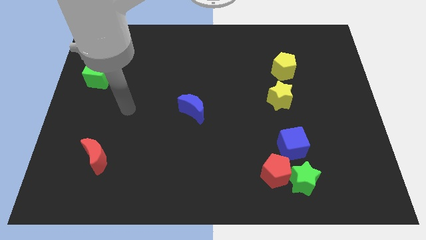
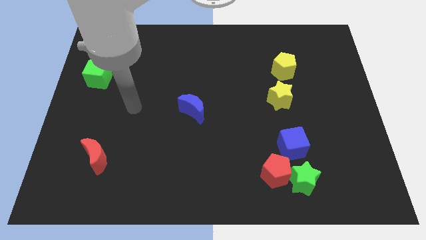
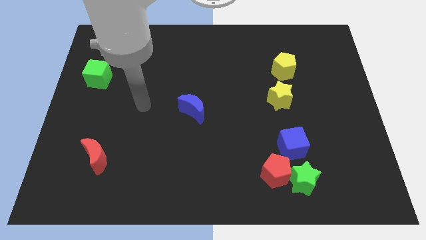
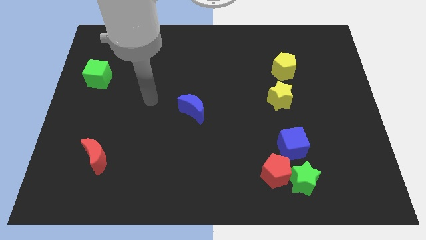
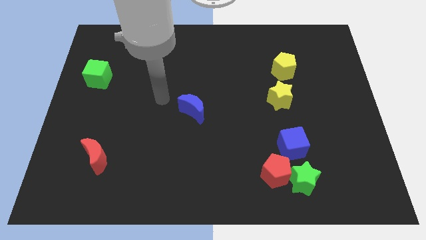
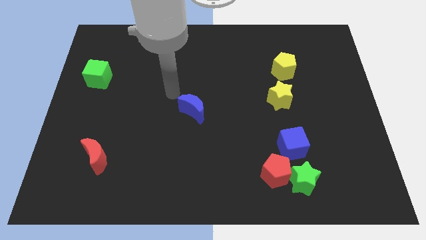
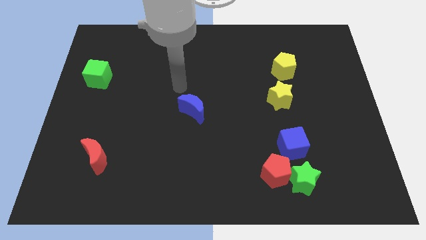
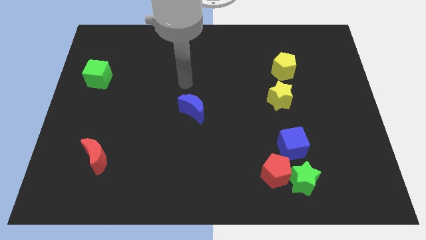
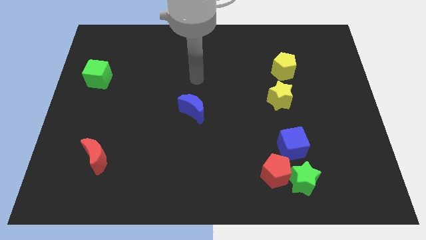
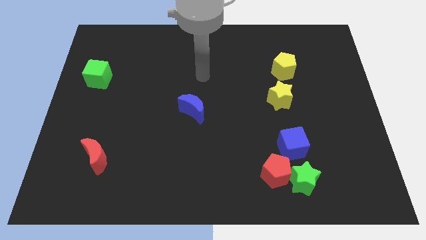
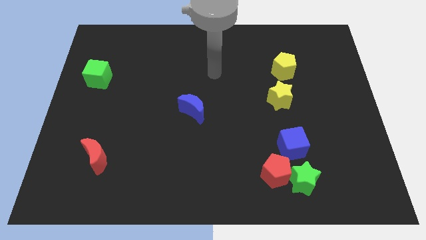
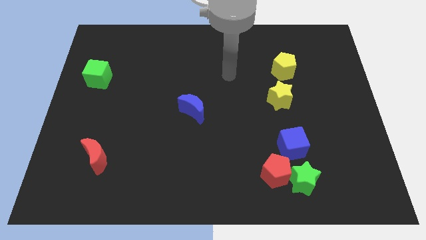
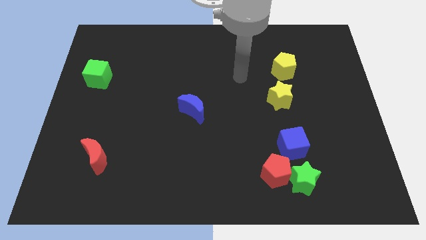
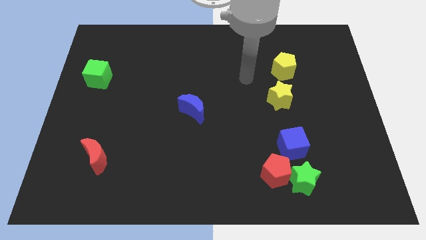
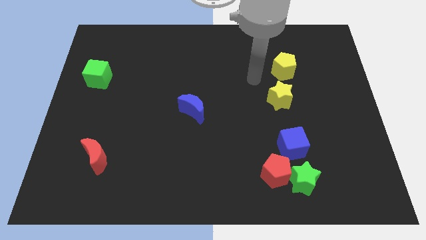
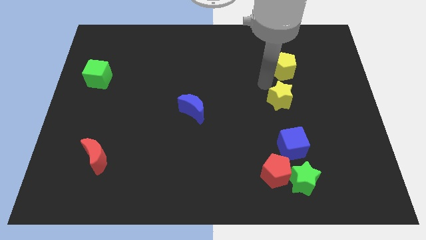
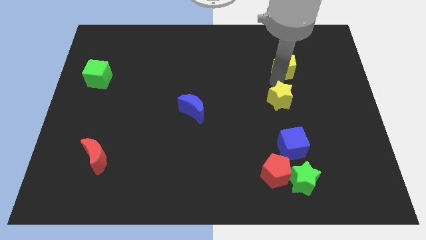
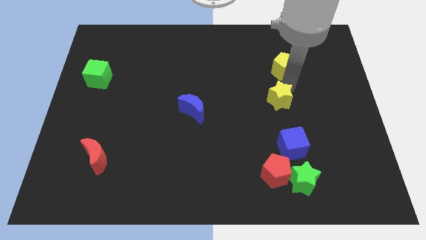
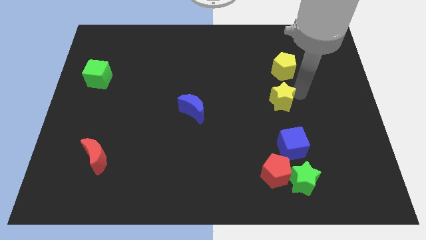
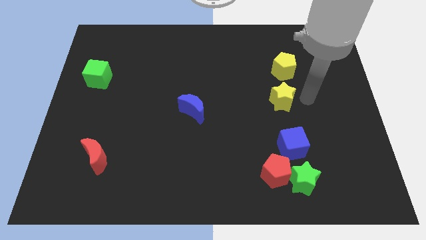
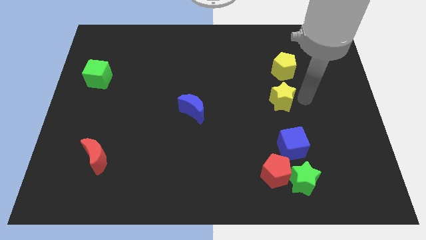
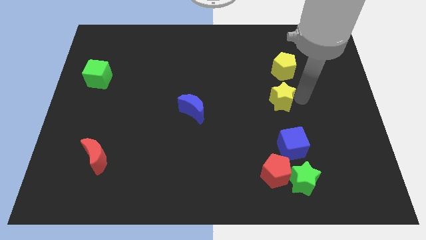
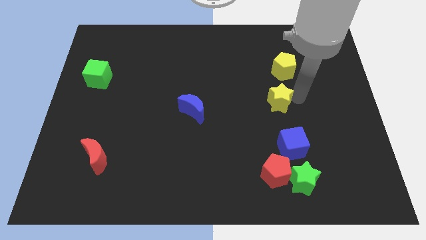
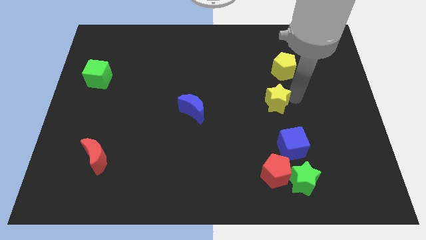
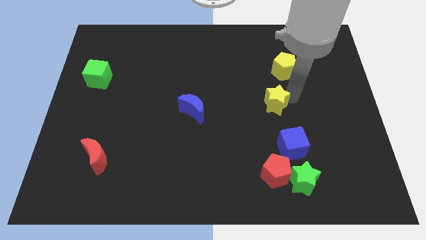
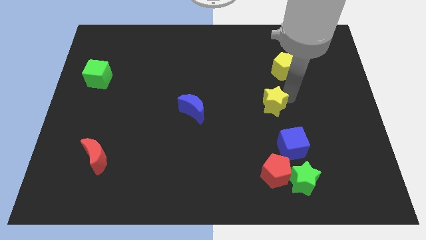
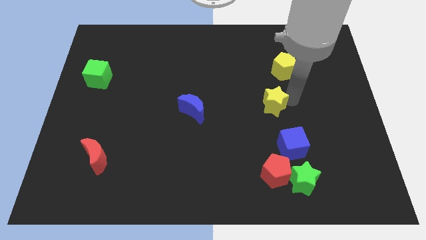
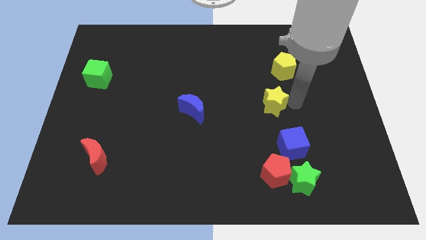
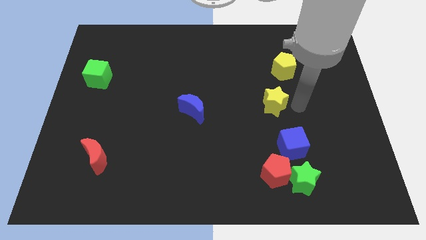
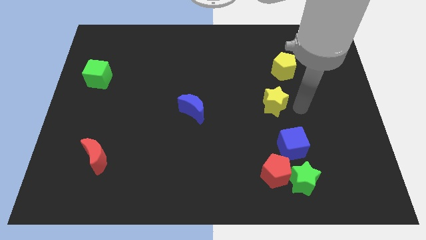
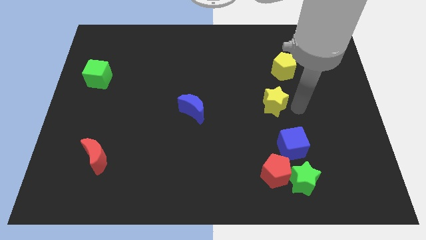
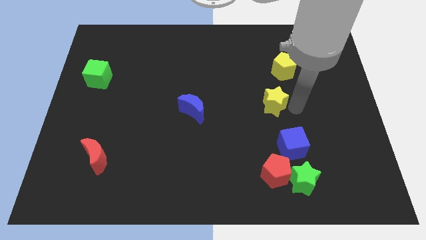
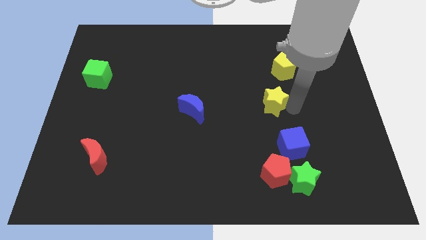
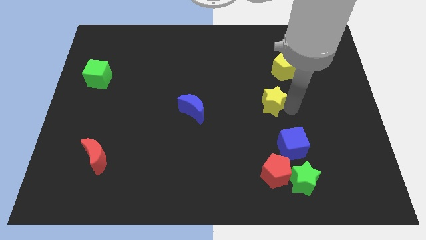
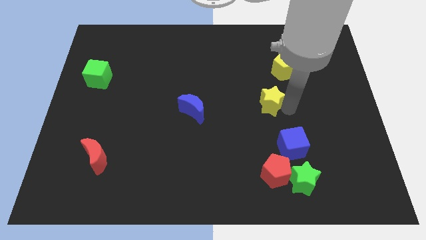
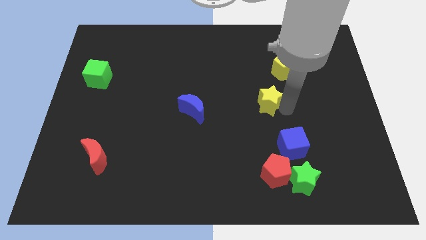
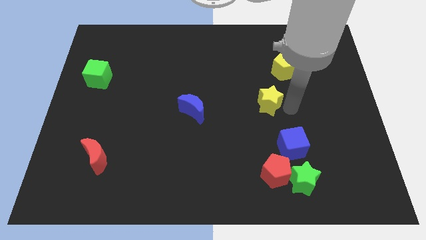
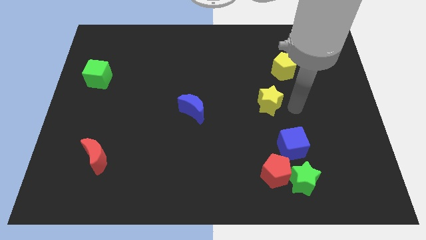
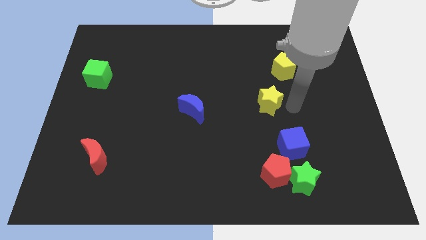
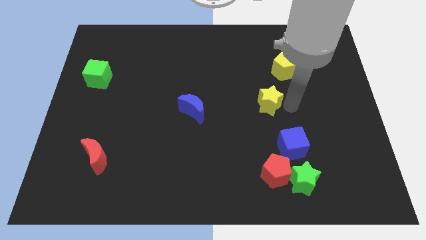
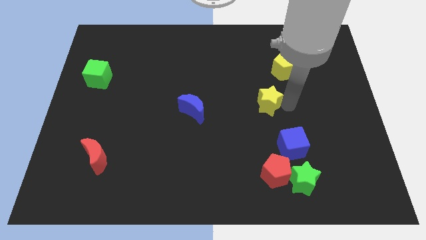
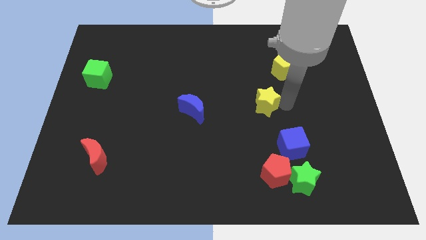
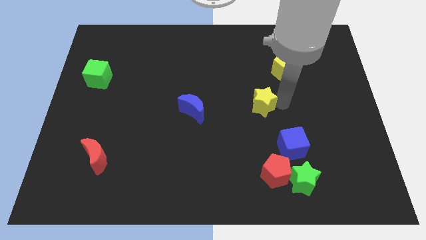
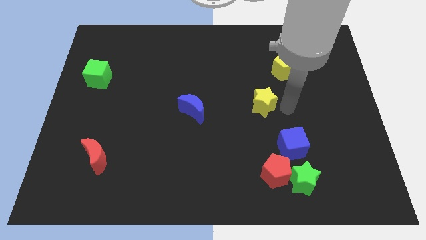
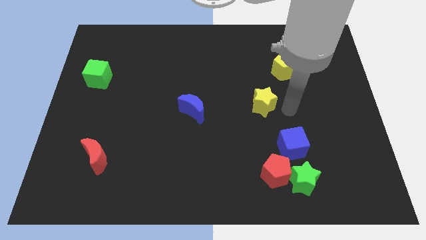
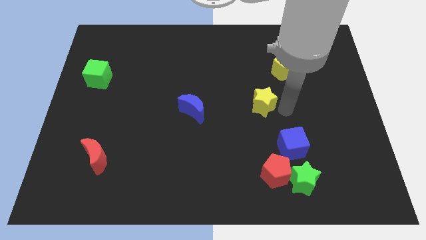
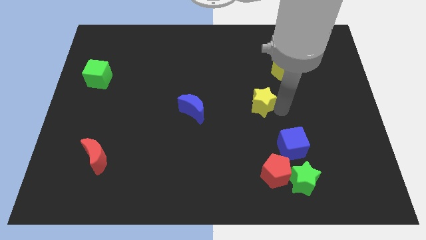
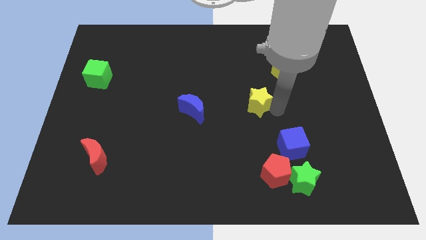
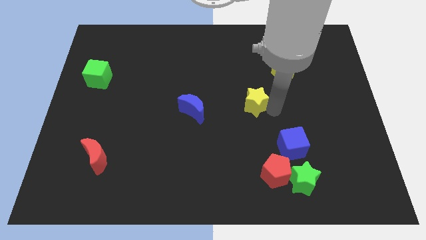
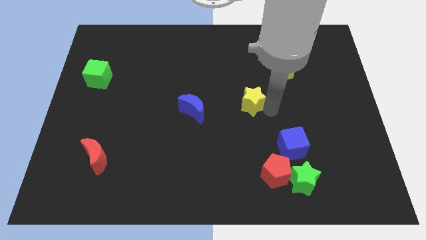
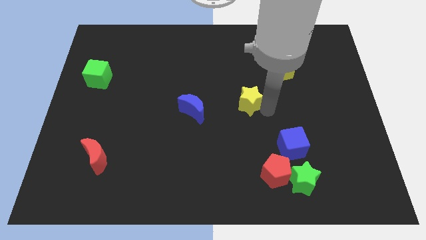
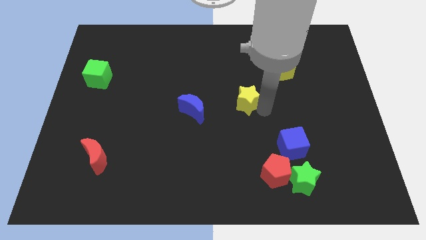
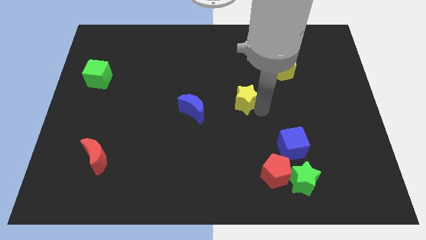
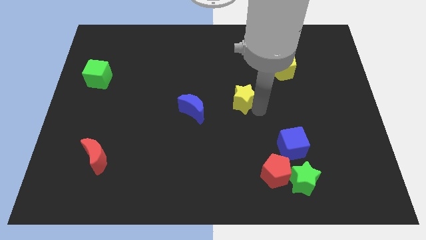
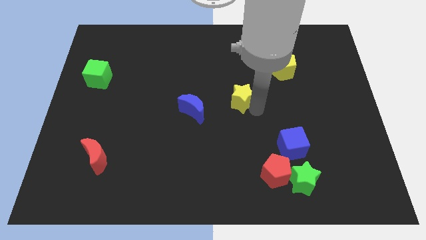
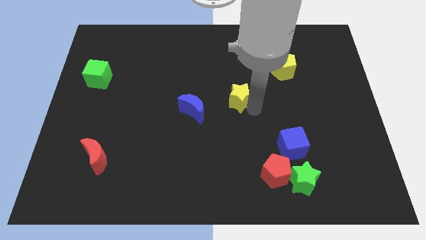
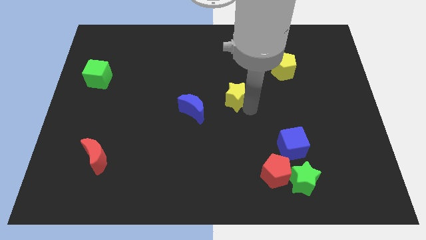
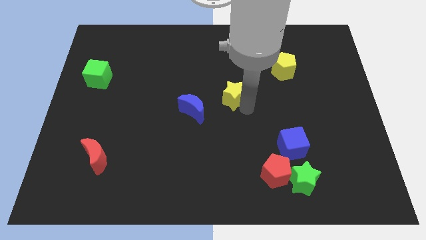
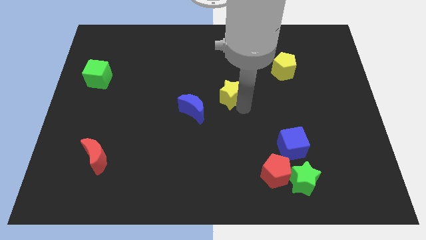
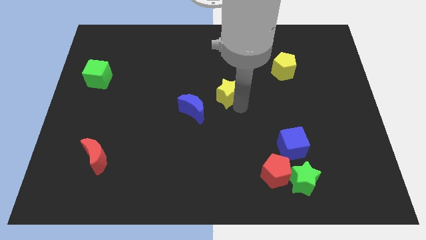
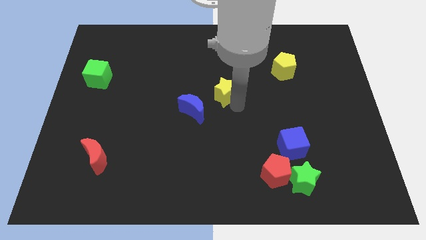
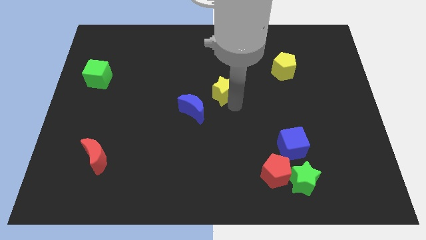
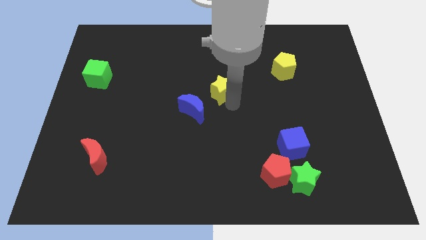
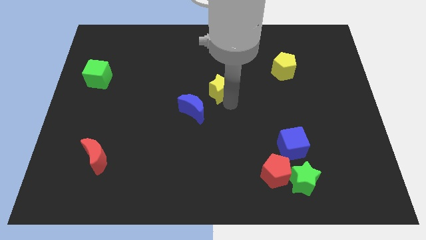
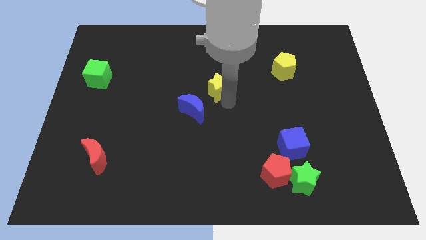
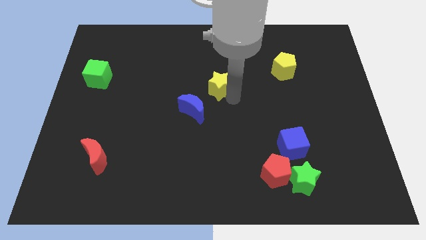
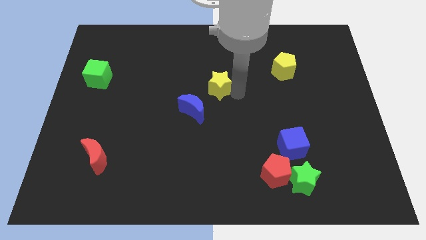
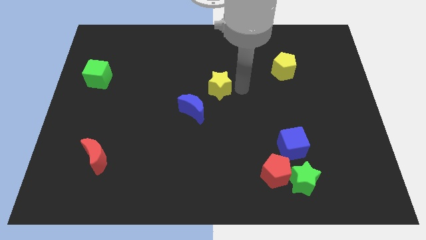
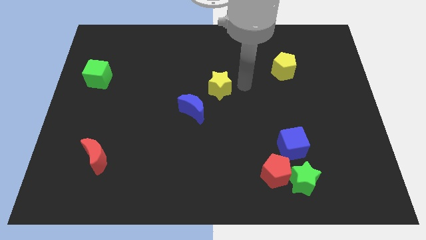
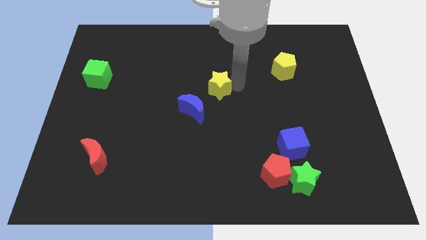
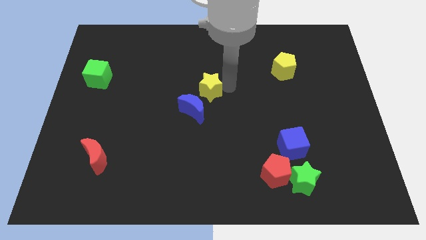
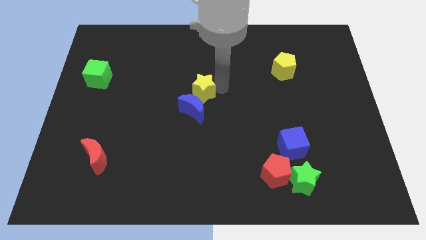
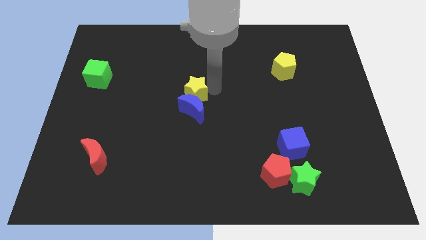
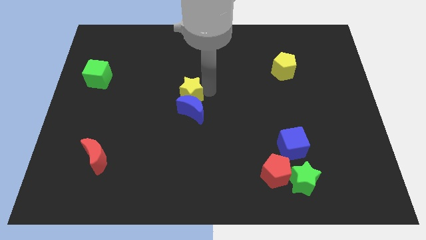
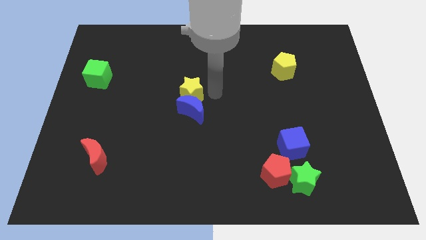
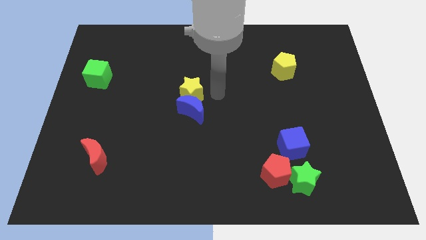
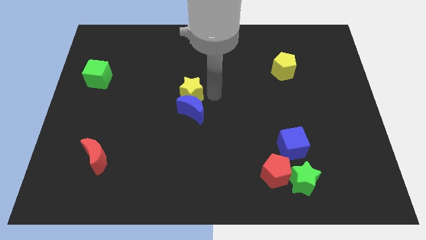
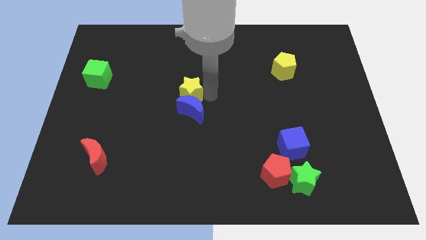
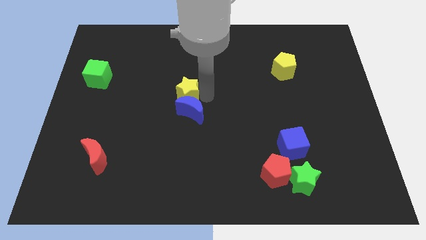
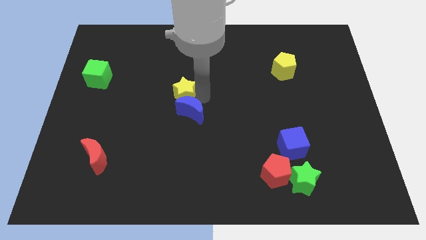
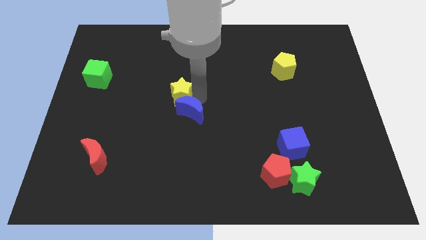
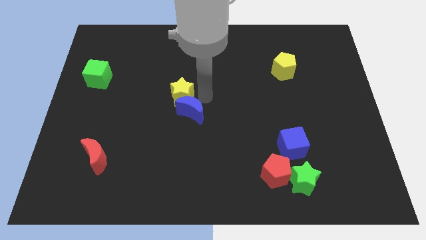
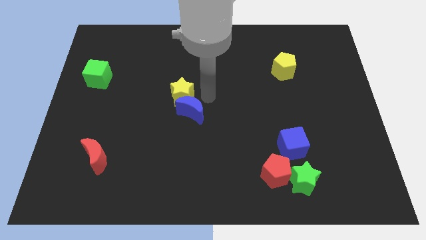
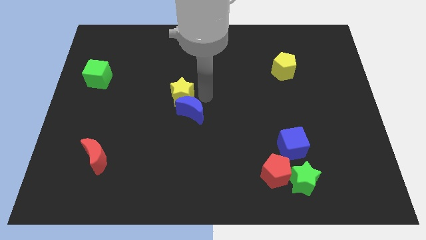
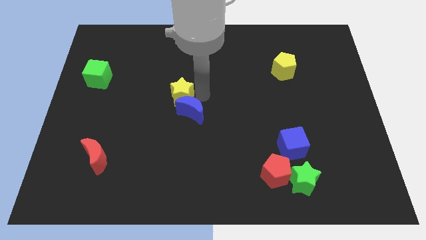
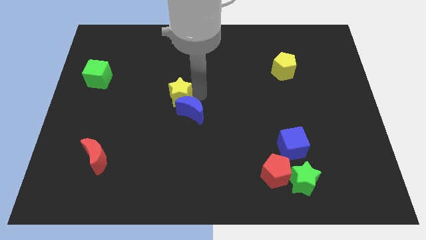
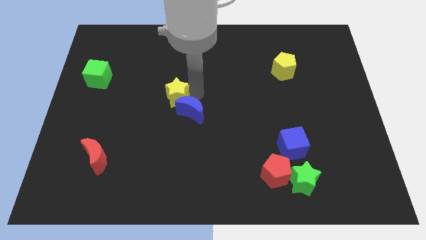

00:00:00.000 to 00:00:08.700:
put the yellow star left of the blue moon
